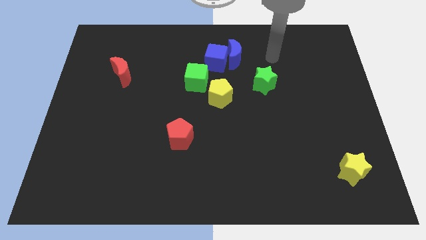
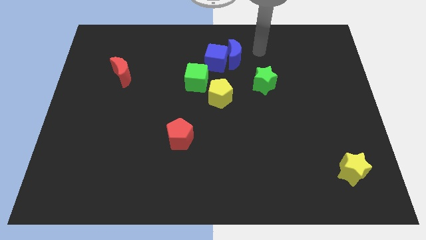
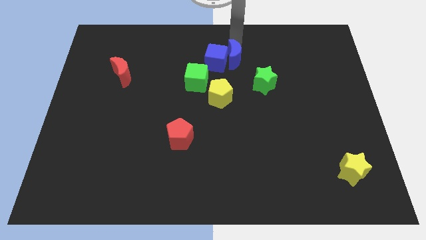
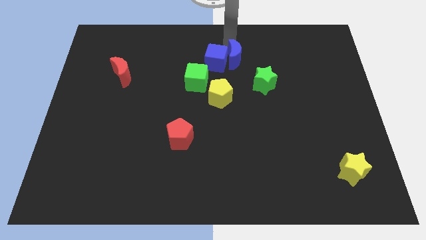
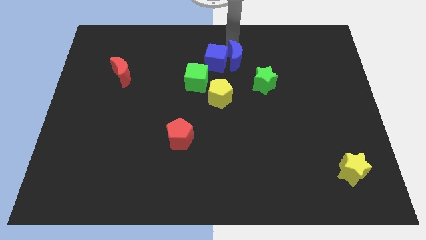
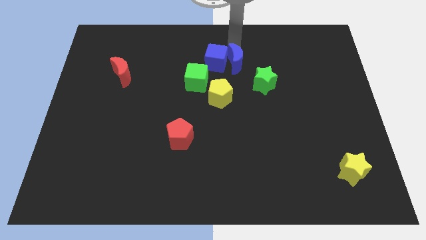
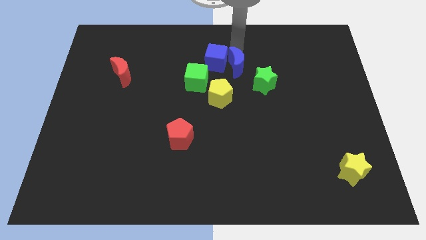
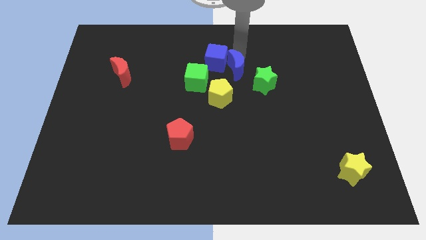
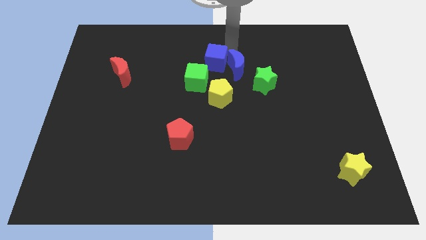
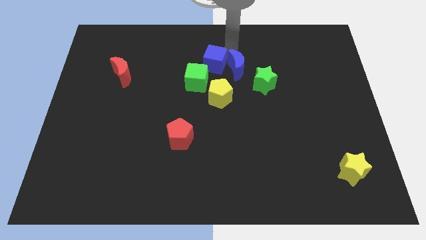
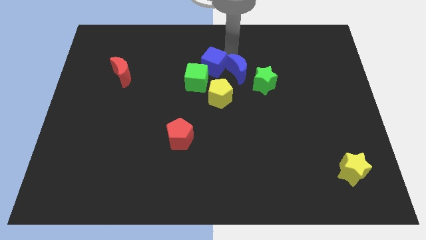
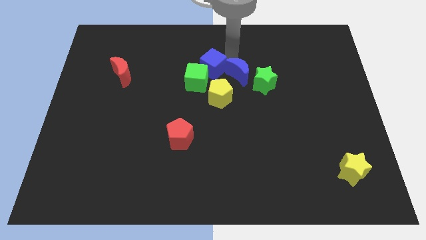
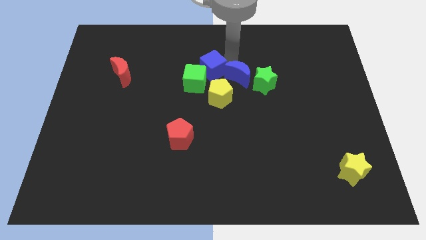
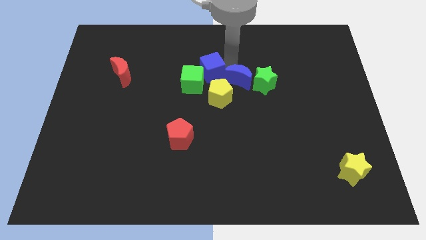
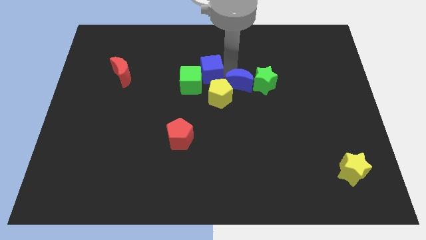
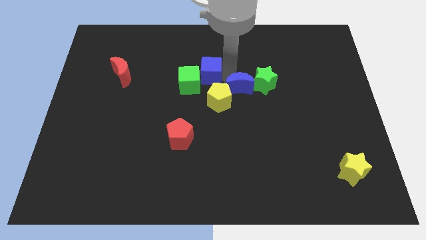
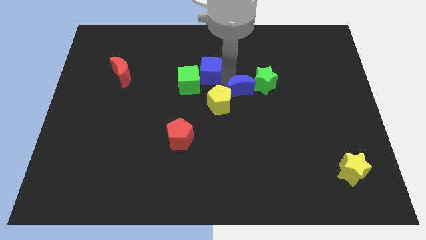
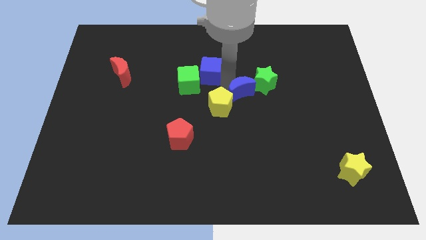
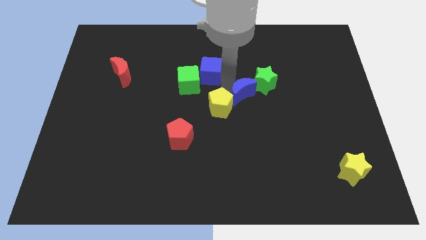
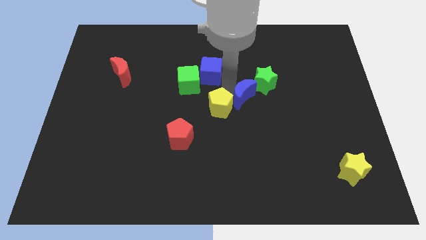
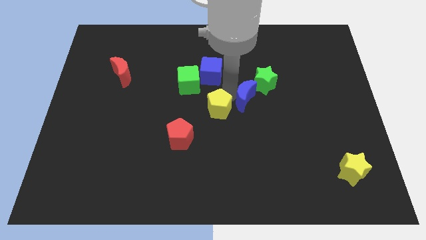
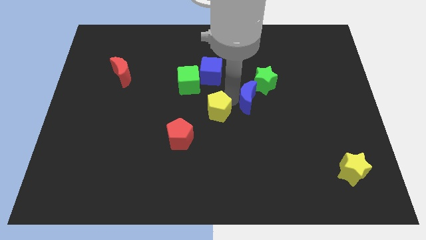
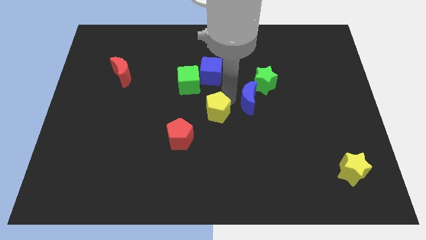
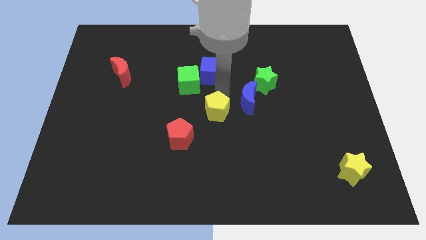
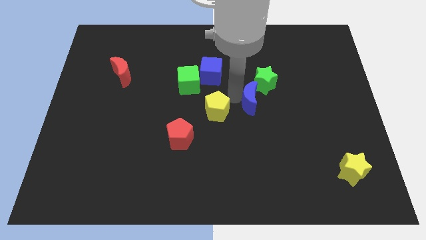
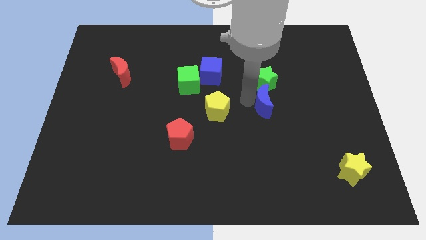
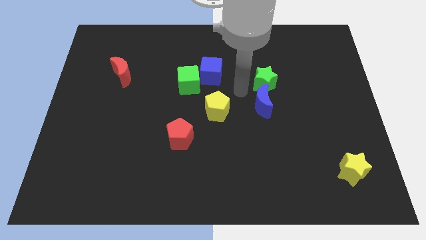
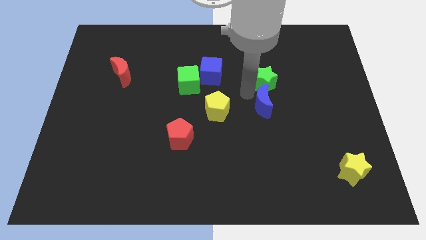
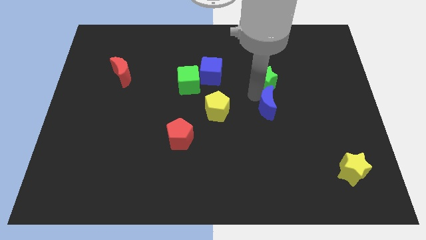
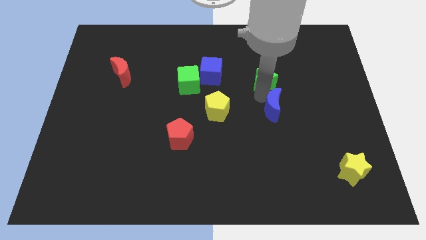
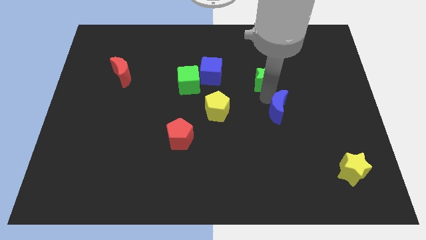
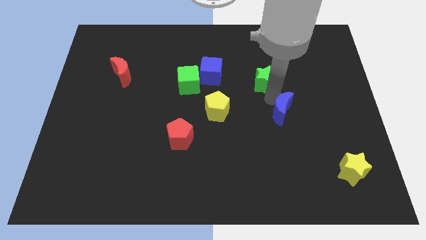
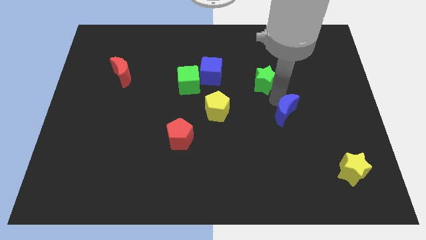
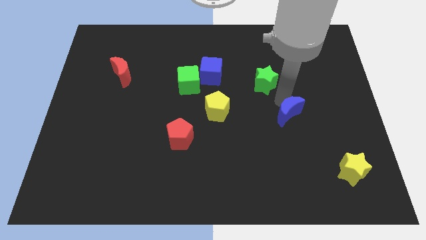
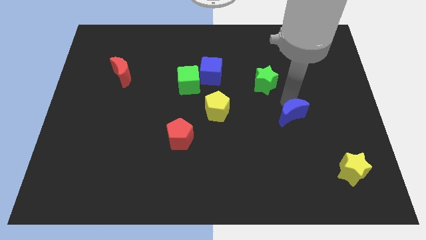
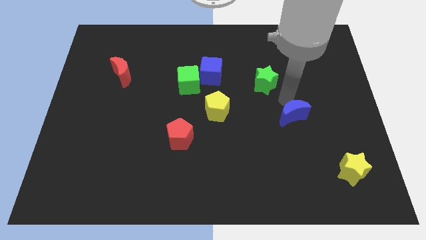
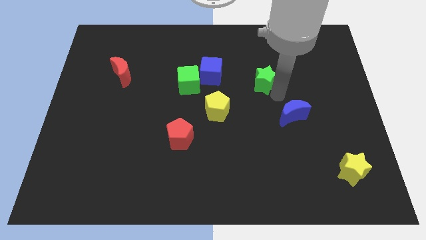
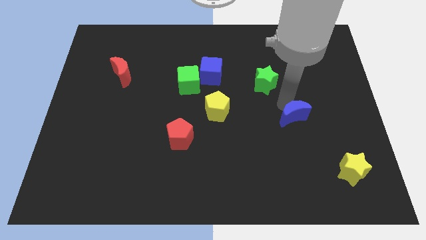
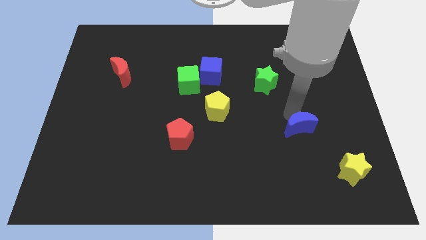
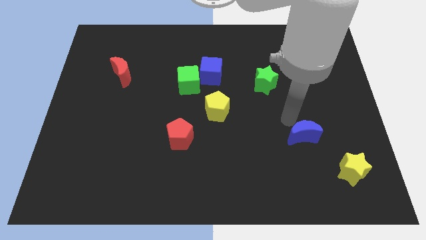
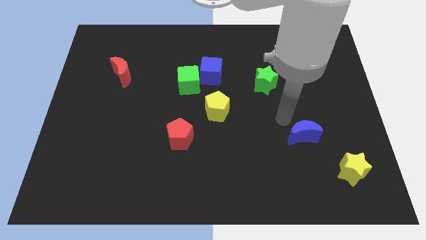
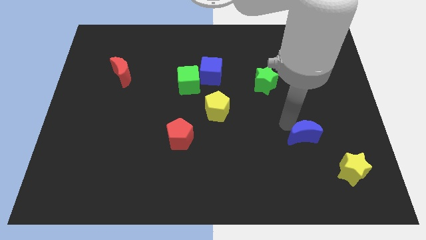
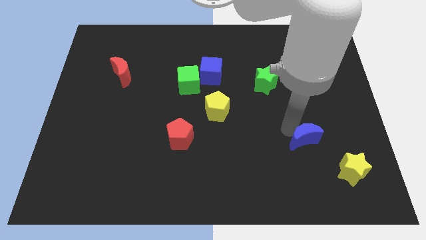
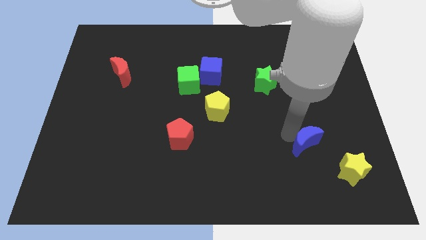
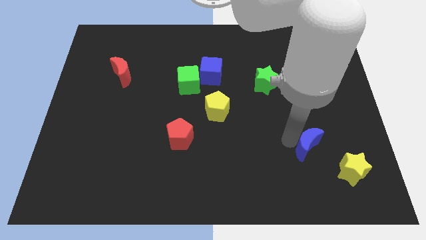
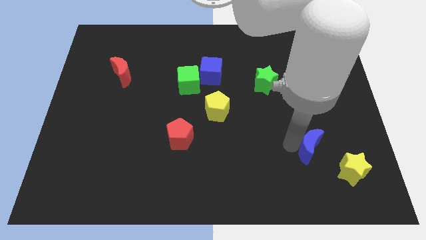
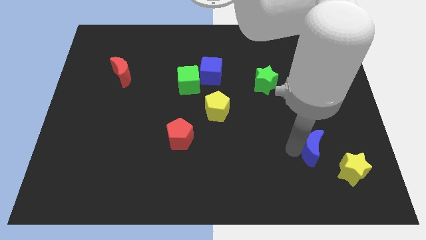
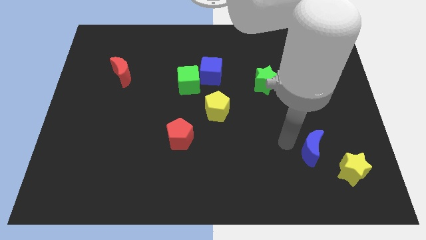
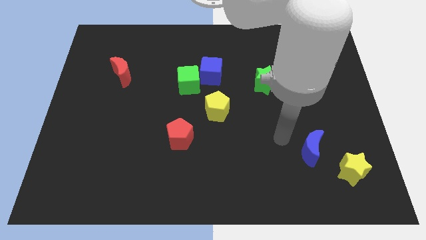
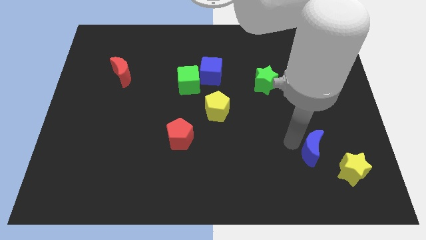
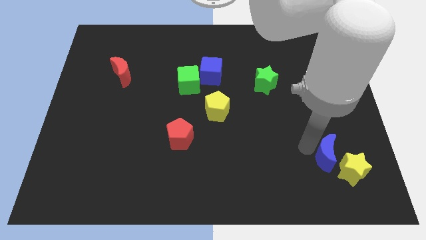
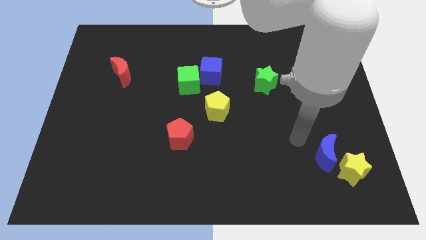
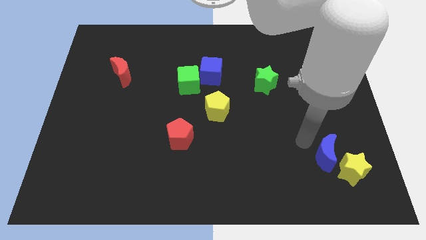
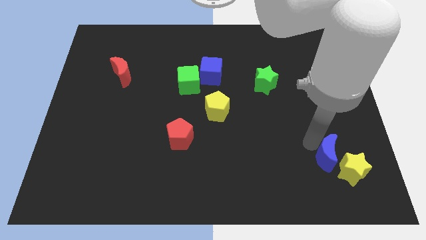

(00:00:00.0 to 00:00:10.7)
push the blue moon close to the yellow star

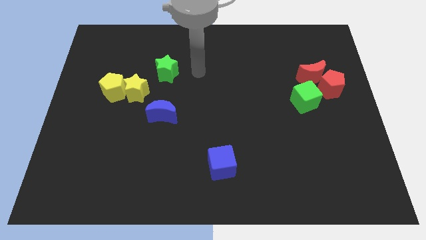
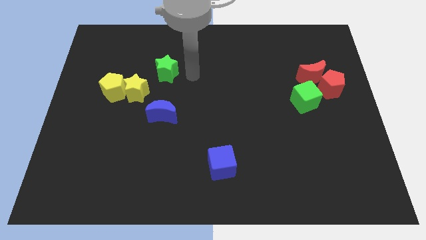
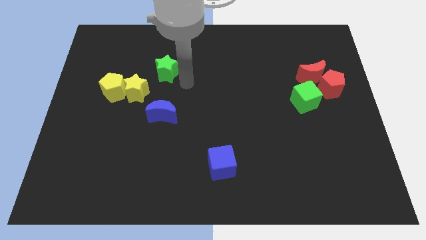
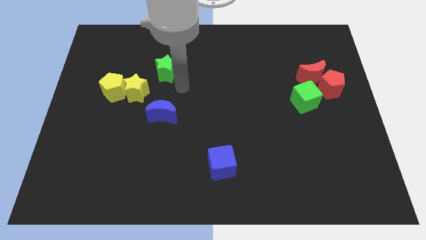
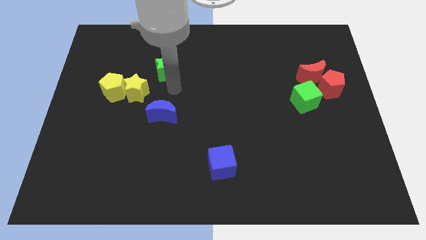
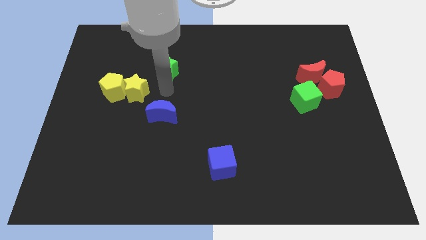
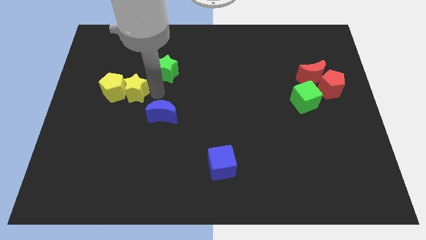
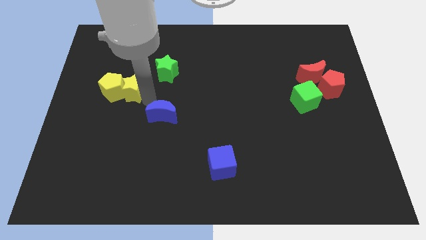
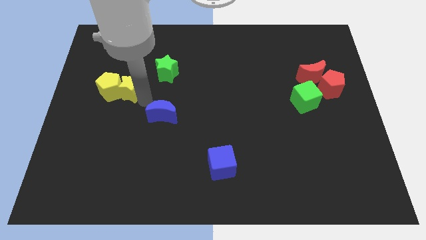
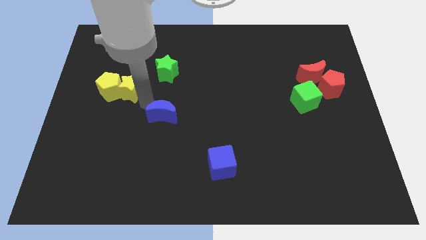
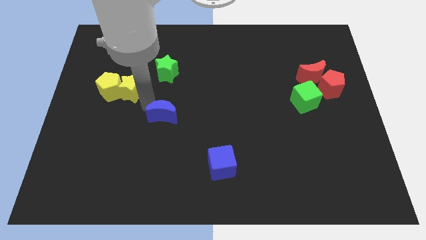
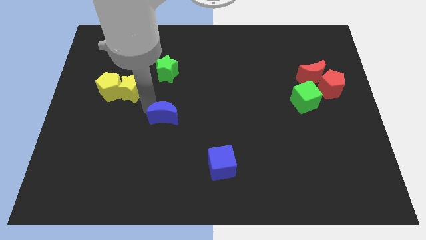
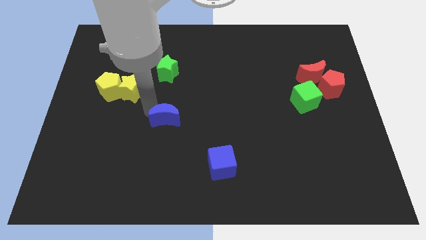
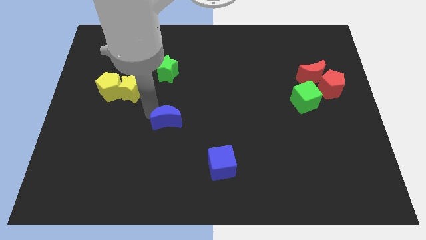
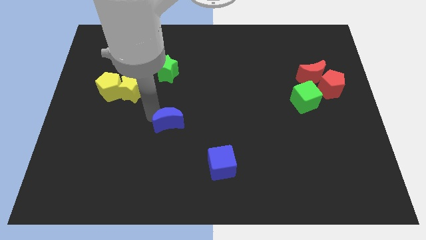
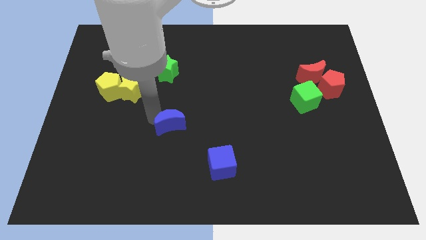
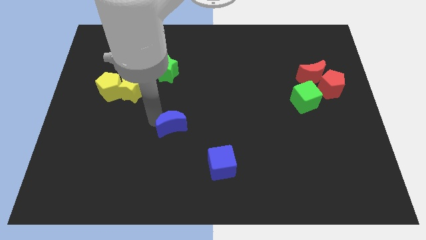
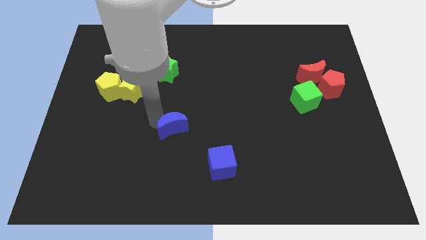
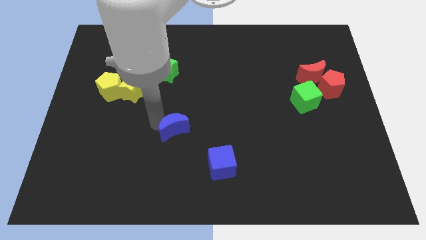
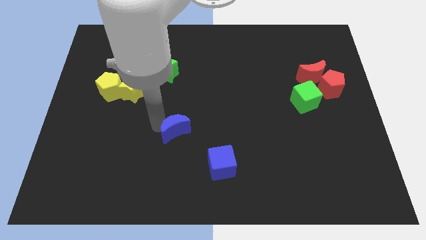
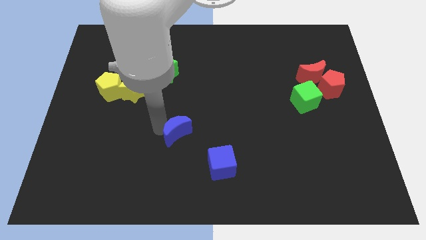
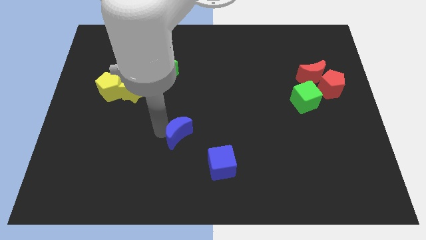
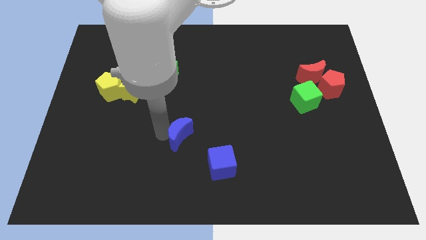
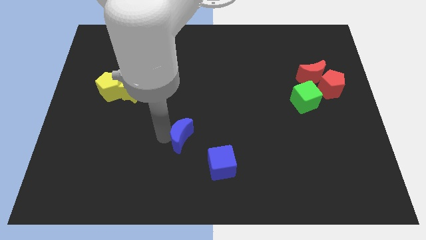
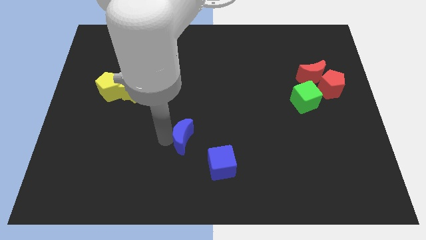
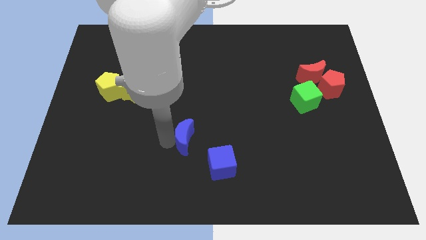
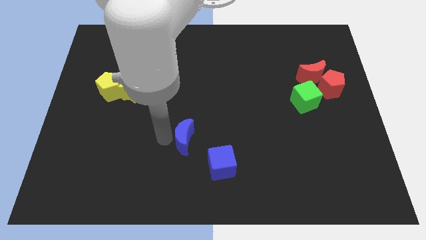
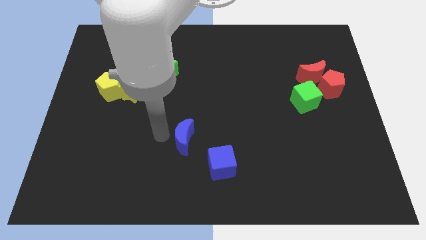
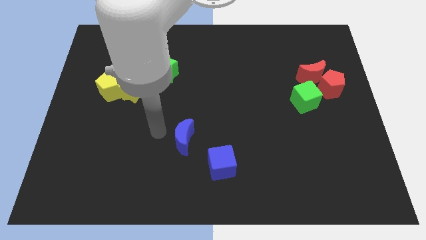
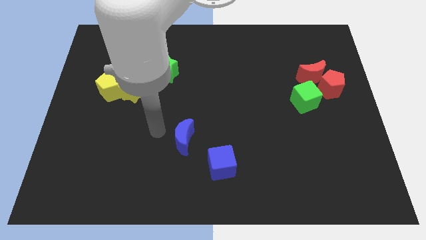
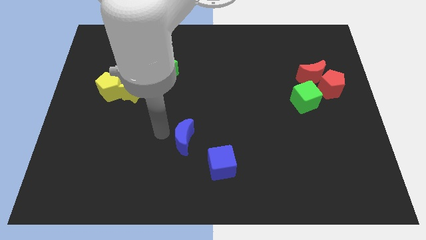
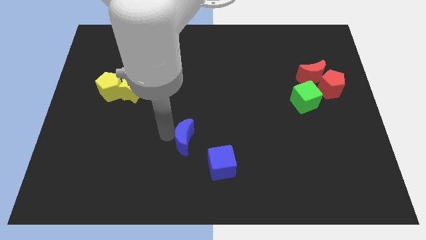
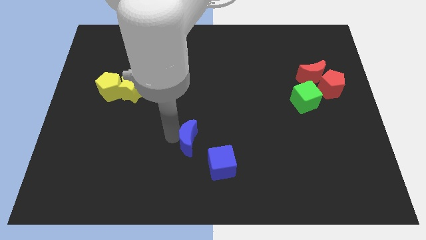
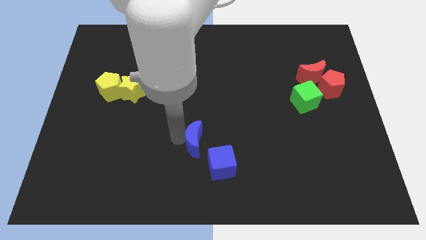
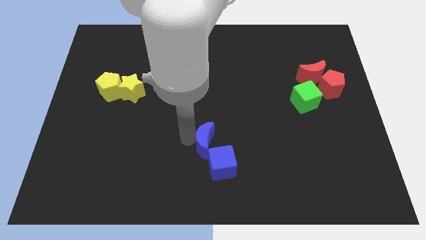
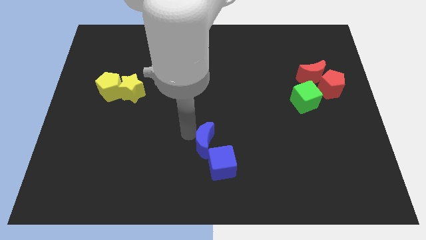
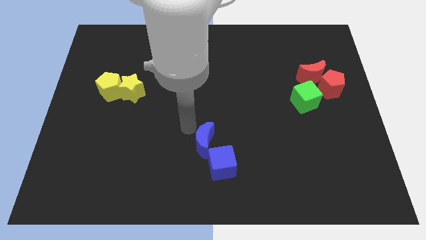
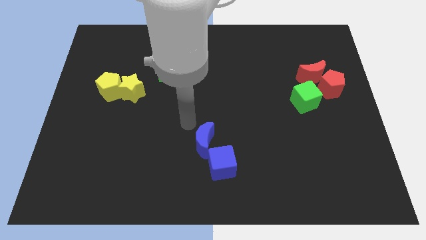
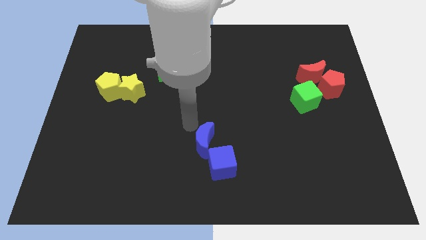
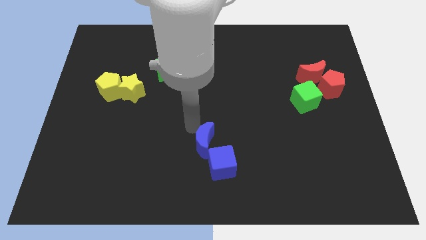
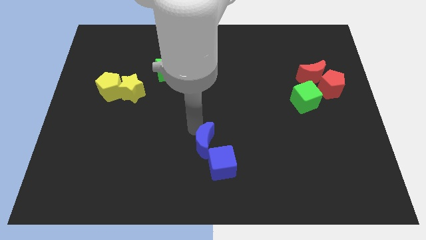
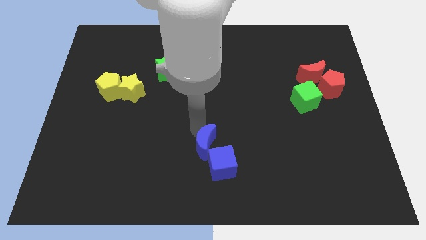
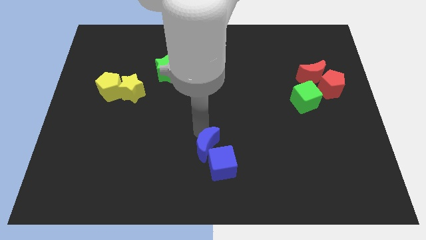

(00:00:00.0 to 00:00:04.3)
slide the blue moon close to the blue cube
